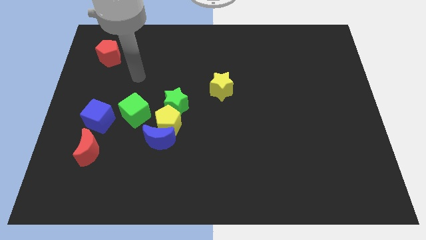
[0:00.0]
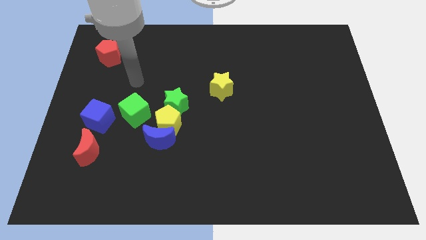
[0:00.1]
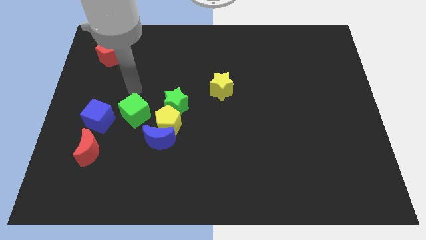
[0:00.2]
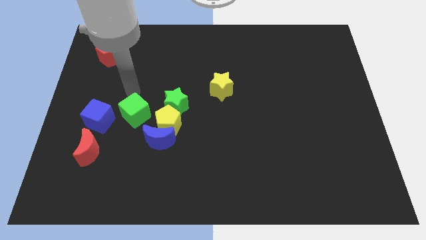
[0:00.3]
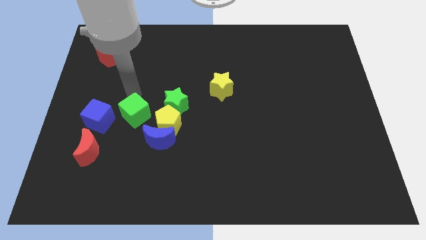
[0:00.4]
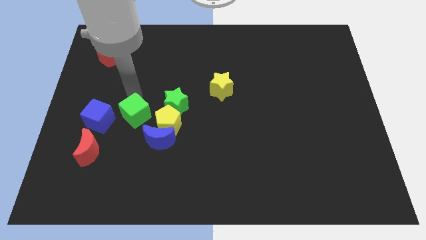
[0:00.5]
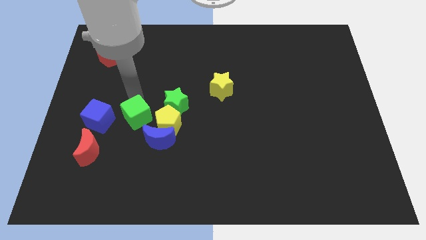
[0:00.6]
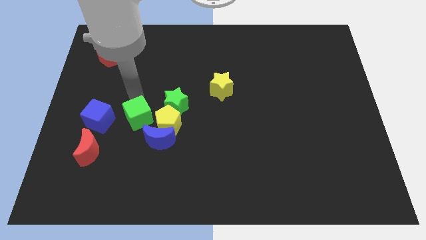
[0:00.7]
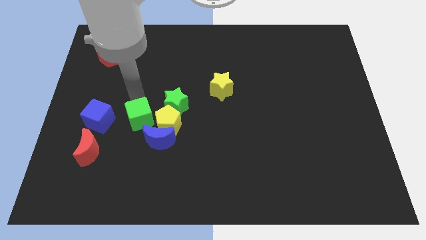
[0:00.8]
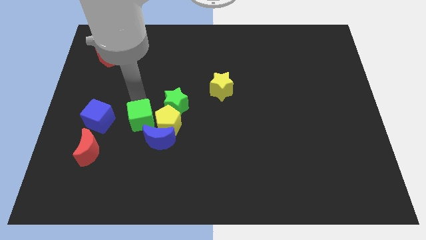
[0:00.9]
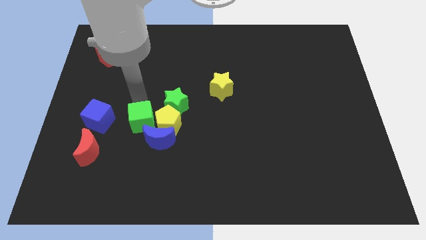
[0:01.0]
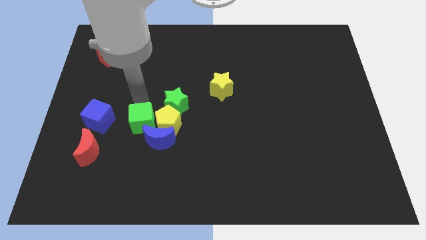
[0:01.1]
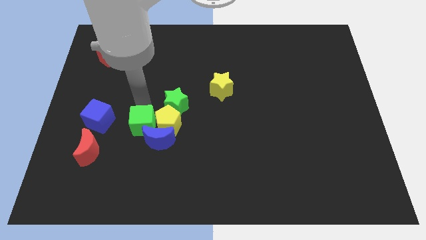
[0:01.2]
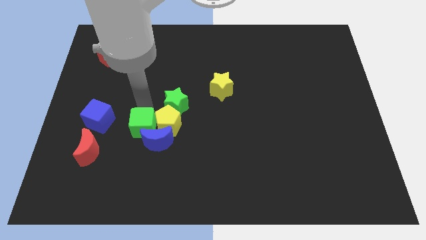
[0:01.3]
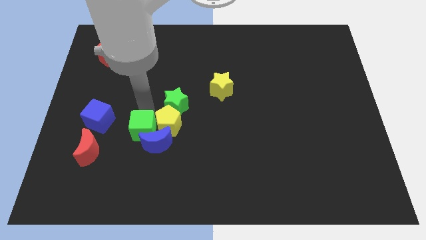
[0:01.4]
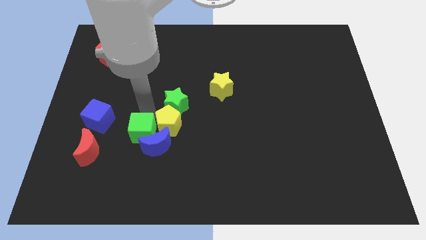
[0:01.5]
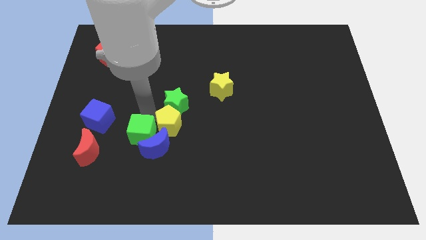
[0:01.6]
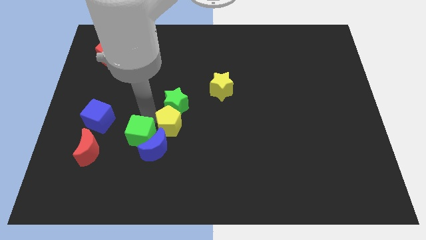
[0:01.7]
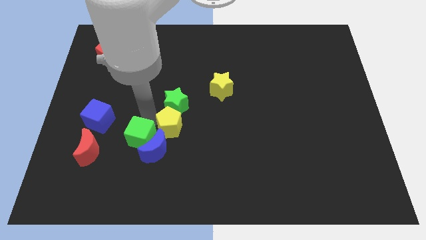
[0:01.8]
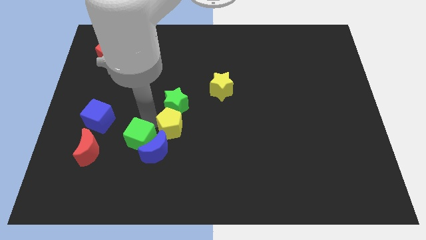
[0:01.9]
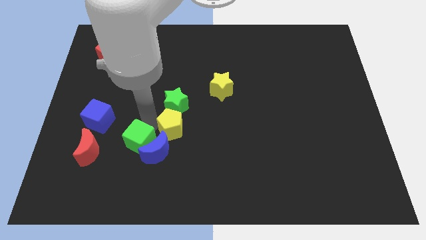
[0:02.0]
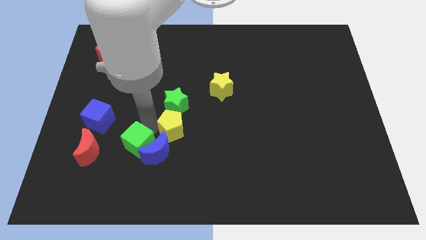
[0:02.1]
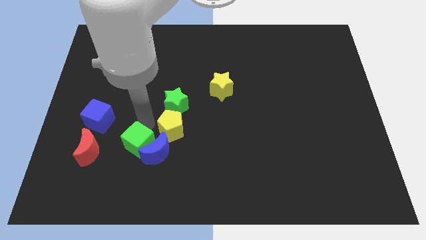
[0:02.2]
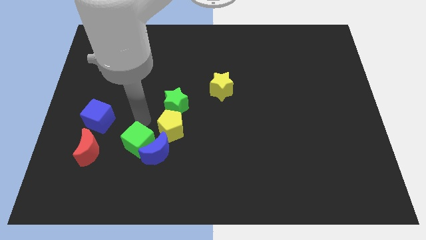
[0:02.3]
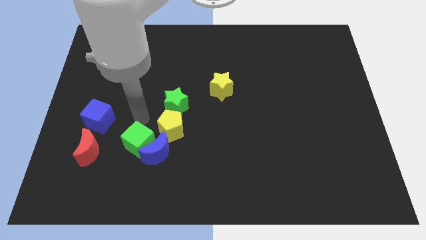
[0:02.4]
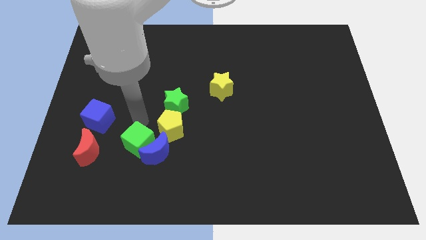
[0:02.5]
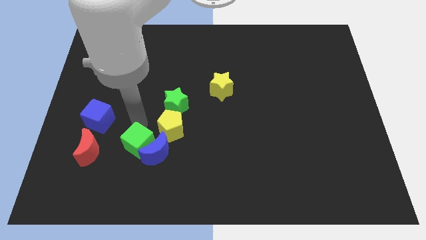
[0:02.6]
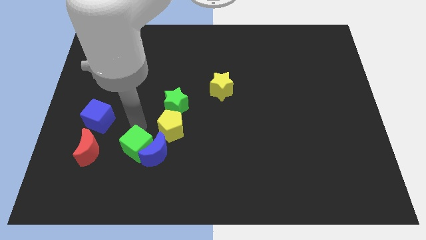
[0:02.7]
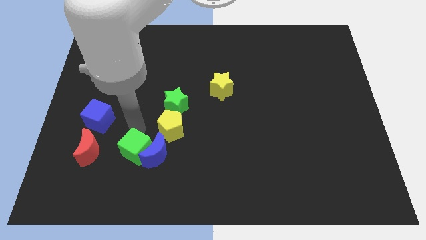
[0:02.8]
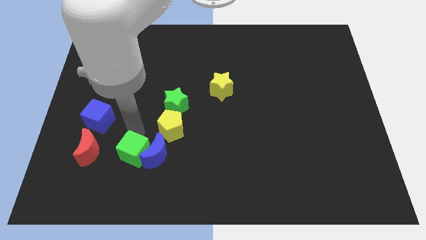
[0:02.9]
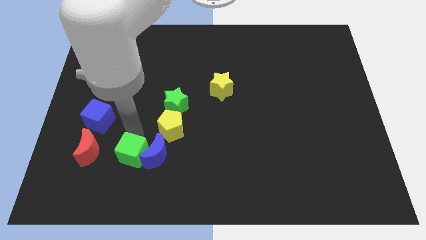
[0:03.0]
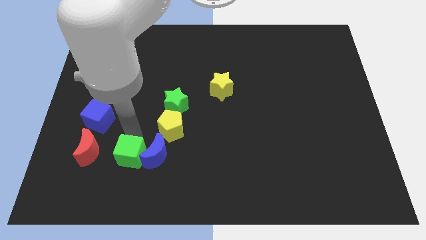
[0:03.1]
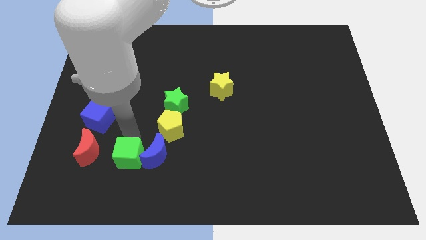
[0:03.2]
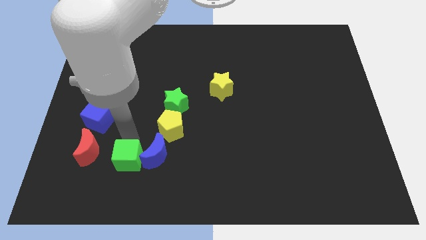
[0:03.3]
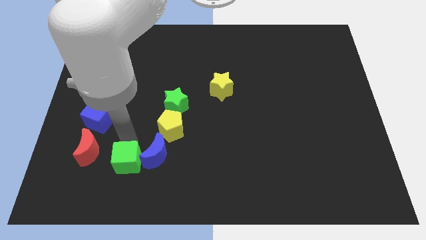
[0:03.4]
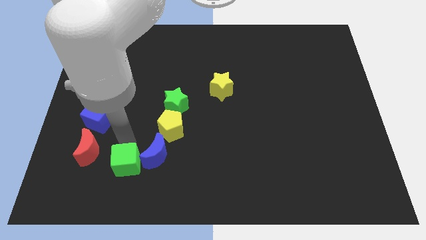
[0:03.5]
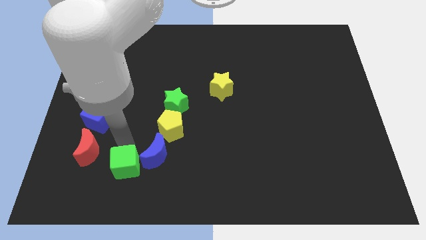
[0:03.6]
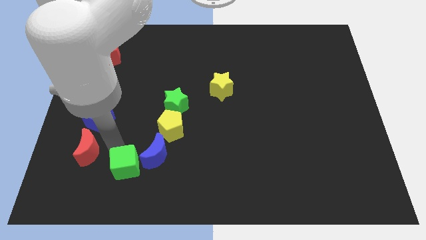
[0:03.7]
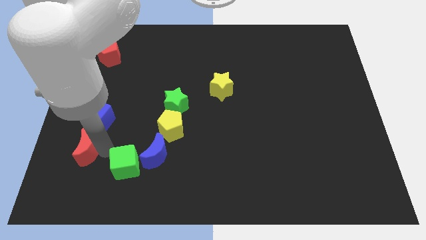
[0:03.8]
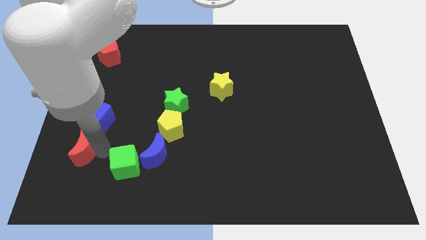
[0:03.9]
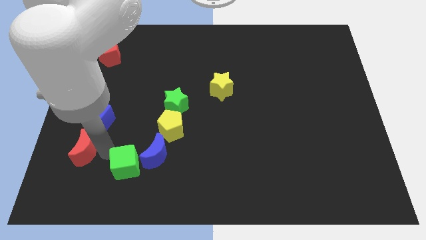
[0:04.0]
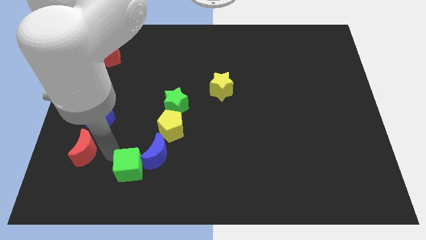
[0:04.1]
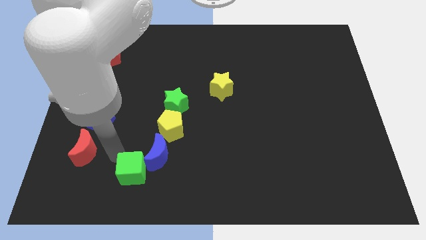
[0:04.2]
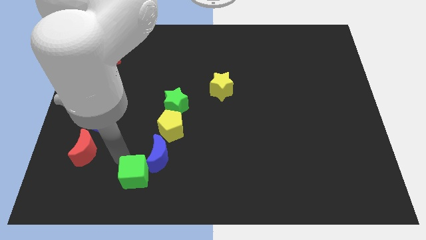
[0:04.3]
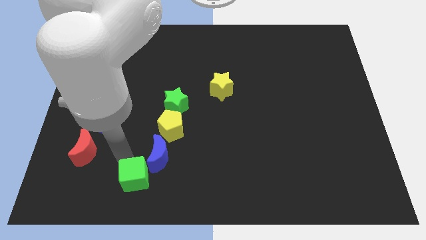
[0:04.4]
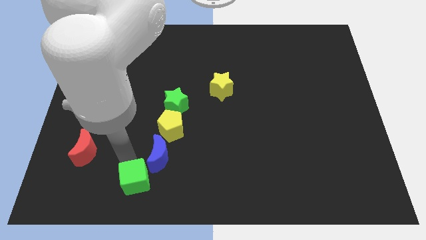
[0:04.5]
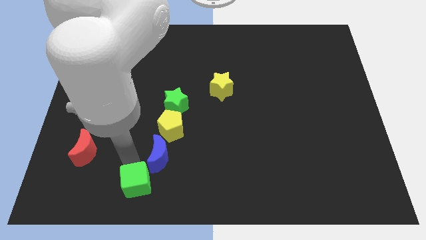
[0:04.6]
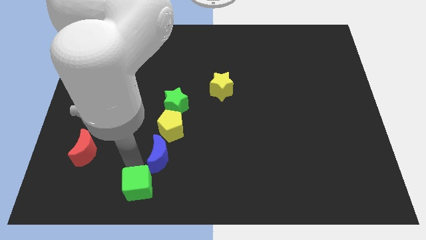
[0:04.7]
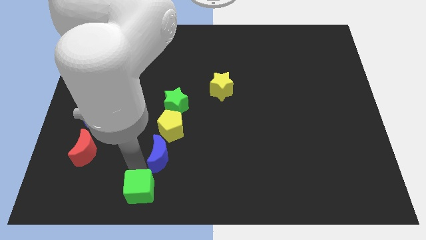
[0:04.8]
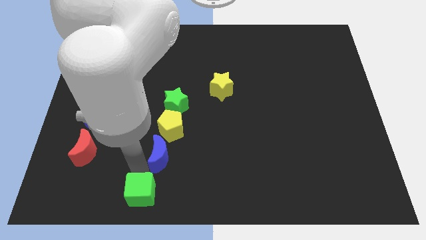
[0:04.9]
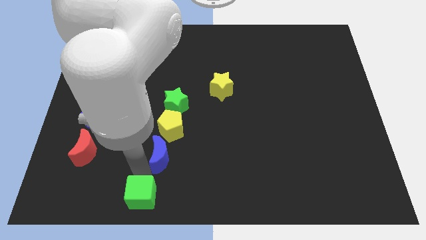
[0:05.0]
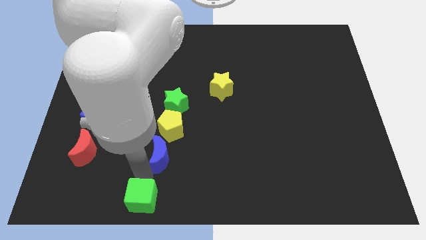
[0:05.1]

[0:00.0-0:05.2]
push the green cube to the bottom side

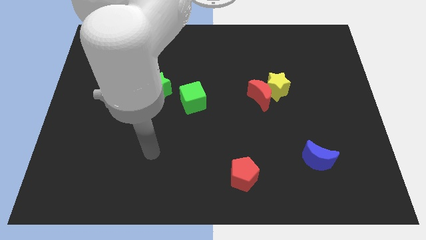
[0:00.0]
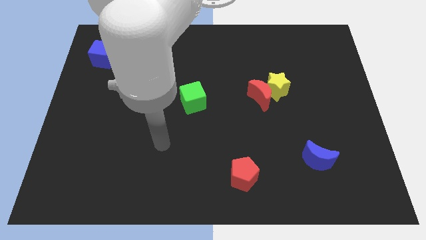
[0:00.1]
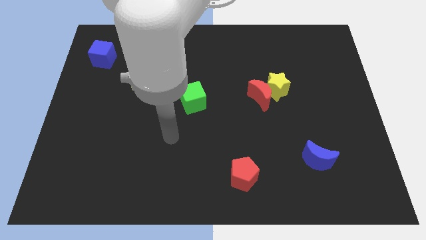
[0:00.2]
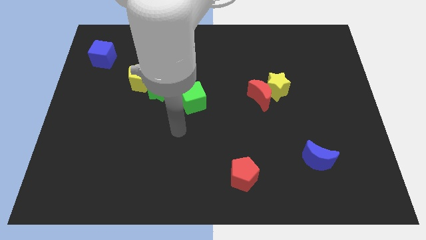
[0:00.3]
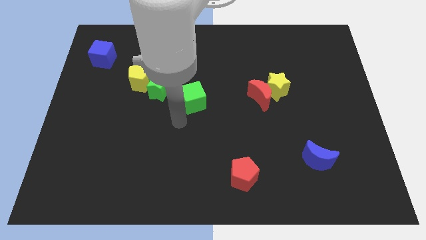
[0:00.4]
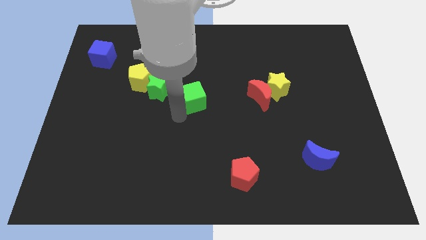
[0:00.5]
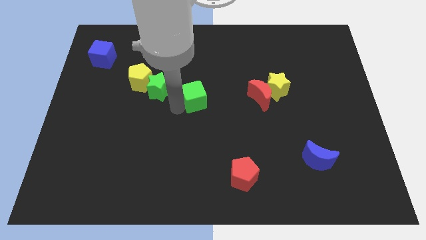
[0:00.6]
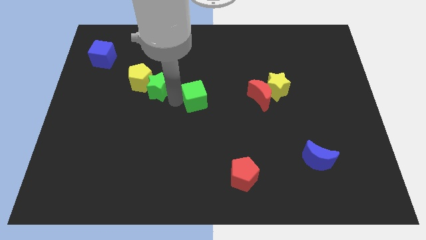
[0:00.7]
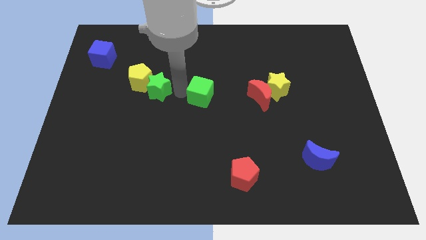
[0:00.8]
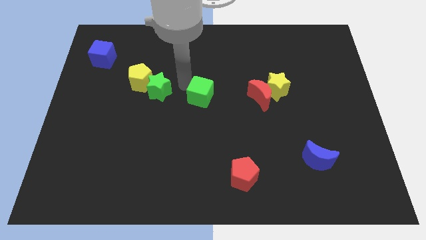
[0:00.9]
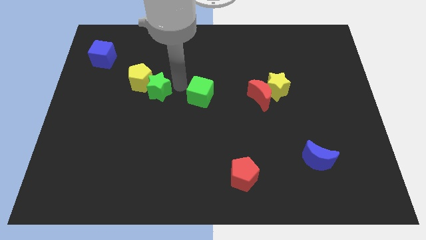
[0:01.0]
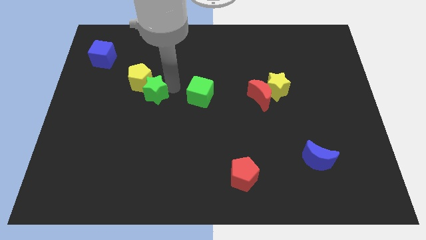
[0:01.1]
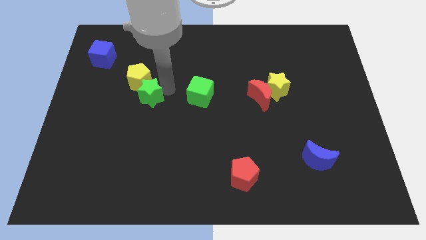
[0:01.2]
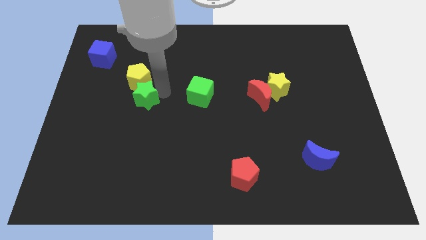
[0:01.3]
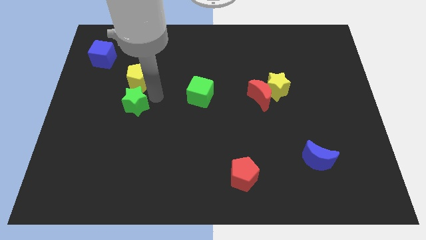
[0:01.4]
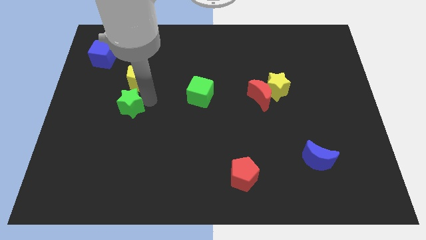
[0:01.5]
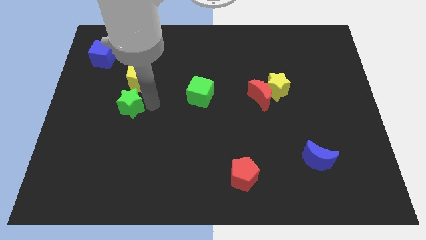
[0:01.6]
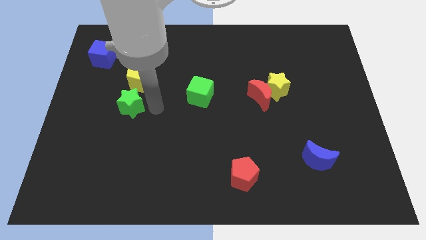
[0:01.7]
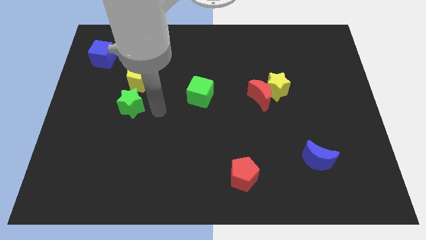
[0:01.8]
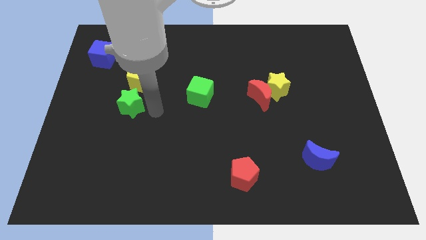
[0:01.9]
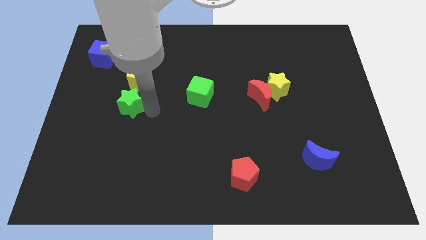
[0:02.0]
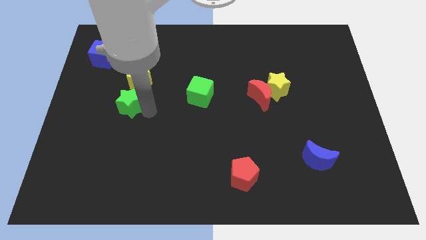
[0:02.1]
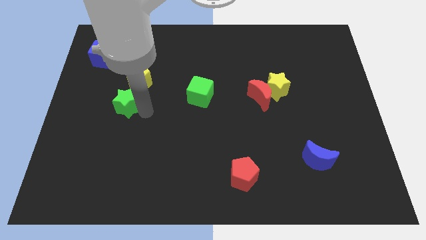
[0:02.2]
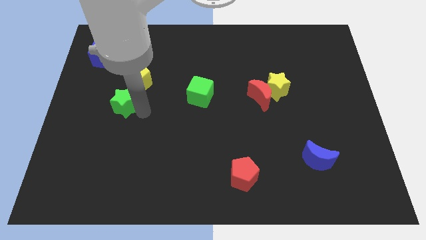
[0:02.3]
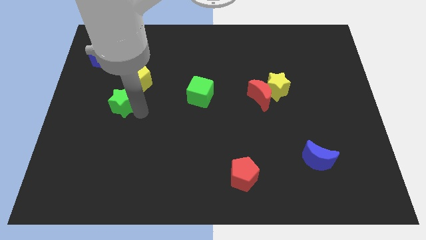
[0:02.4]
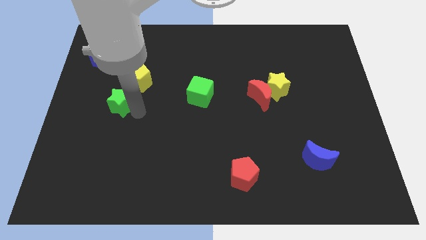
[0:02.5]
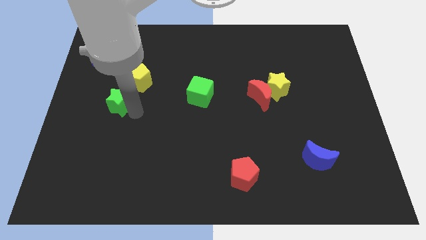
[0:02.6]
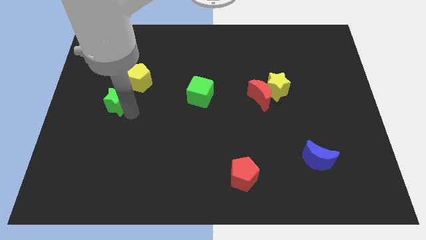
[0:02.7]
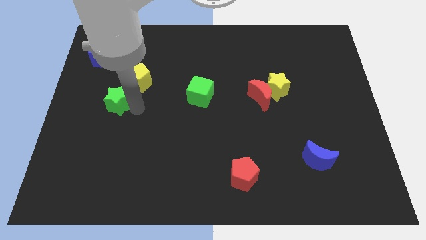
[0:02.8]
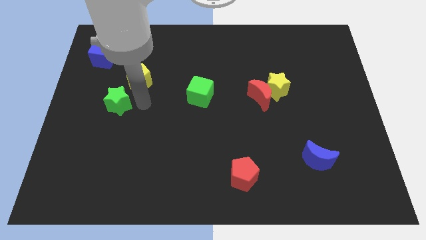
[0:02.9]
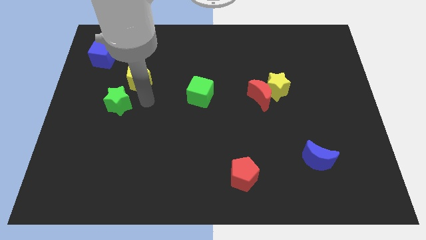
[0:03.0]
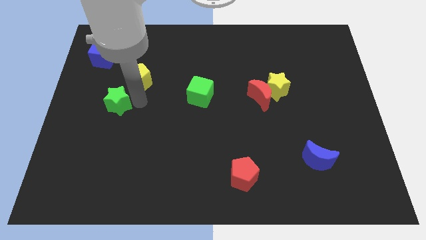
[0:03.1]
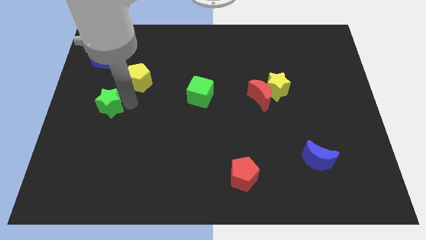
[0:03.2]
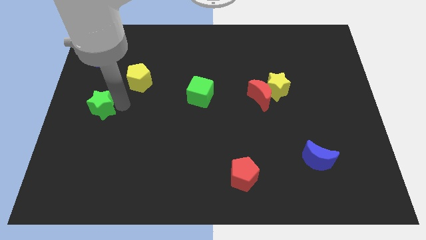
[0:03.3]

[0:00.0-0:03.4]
put the green star to the left side of the board
